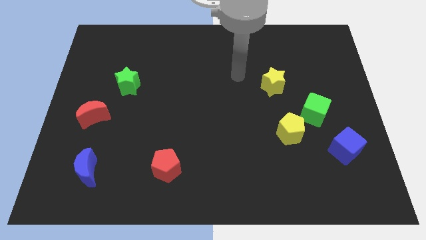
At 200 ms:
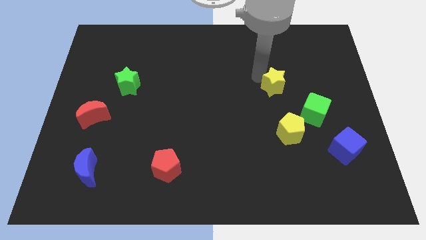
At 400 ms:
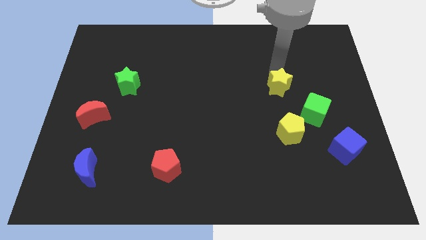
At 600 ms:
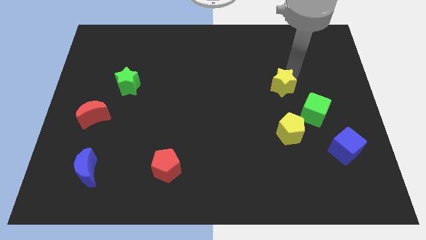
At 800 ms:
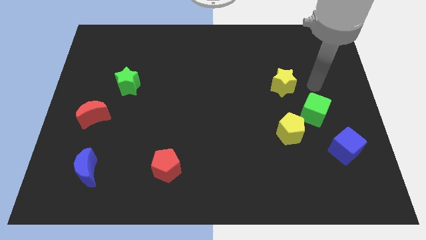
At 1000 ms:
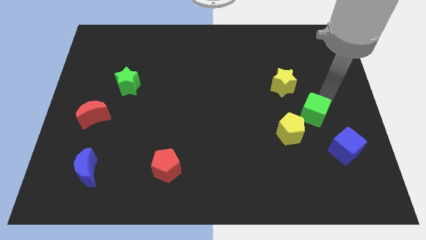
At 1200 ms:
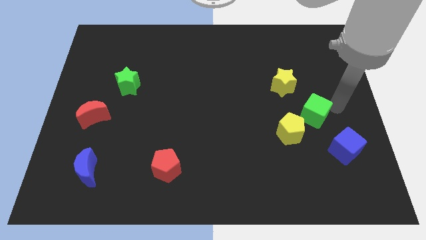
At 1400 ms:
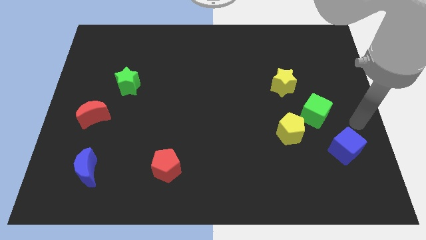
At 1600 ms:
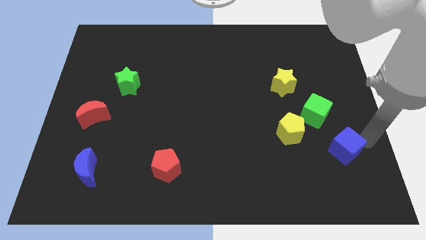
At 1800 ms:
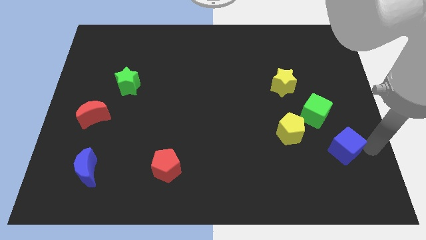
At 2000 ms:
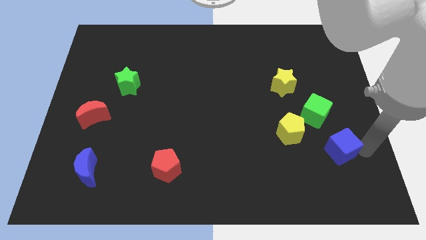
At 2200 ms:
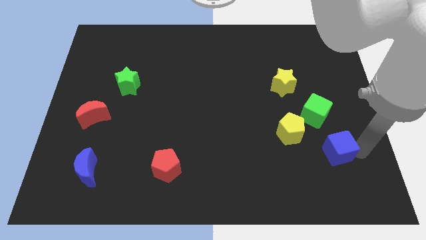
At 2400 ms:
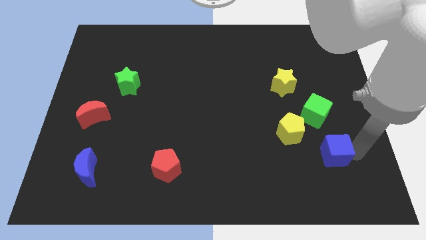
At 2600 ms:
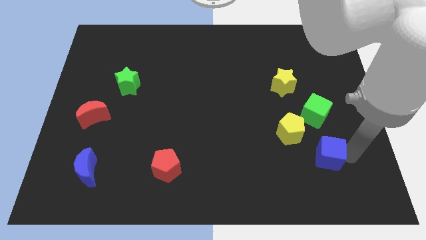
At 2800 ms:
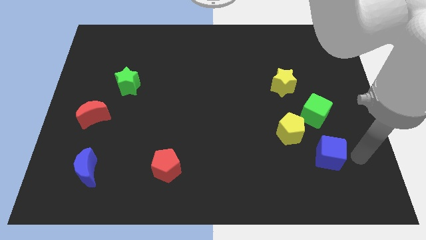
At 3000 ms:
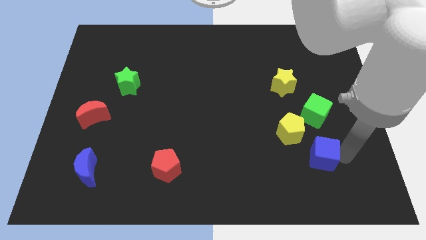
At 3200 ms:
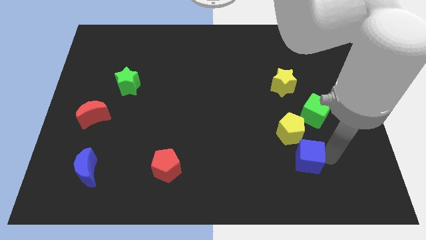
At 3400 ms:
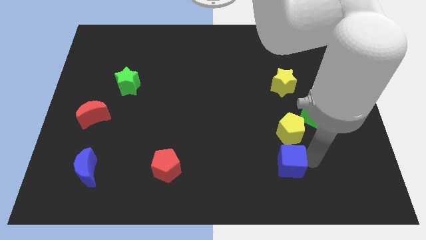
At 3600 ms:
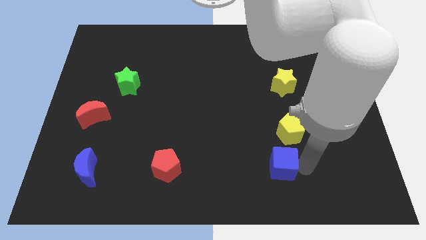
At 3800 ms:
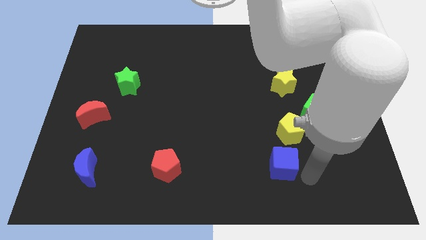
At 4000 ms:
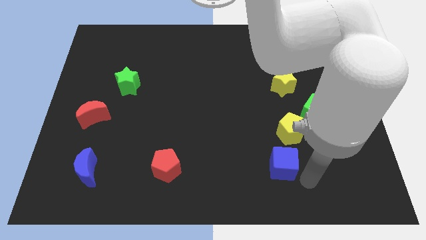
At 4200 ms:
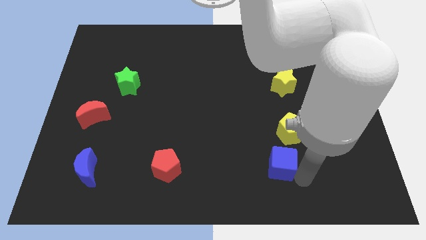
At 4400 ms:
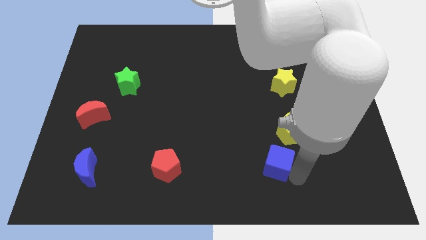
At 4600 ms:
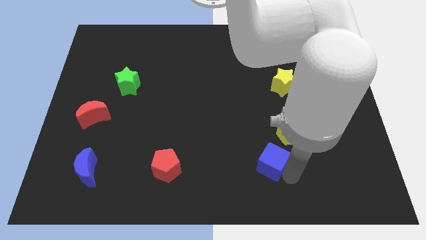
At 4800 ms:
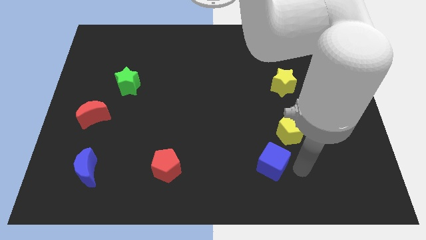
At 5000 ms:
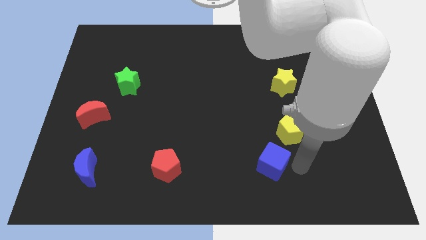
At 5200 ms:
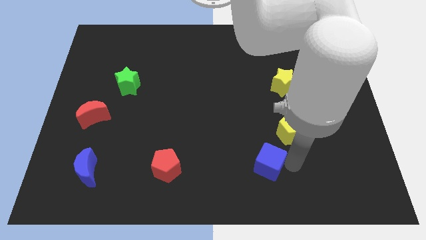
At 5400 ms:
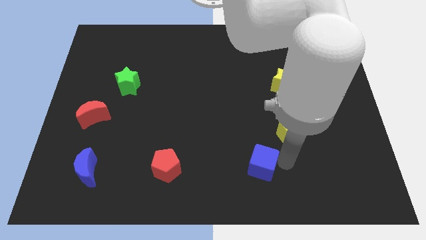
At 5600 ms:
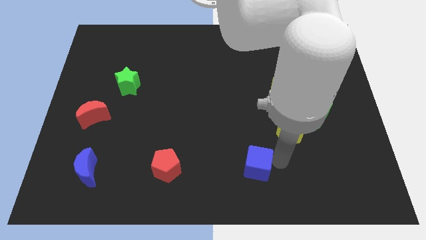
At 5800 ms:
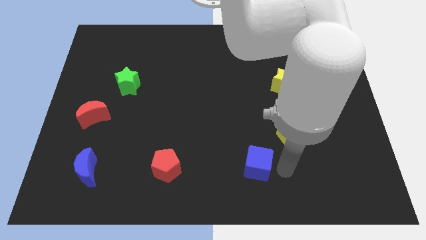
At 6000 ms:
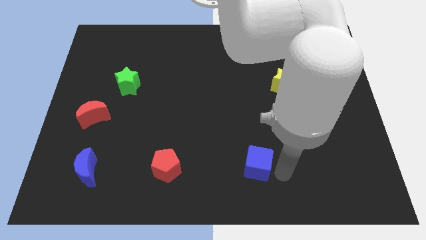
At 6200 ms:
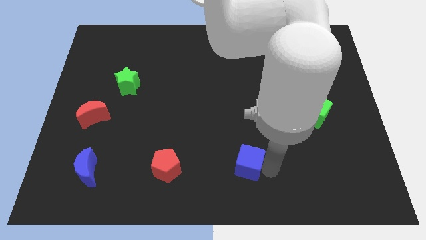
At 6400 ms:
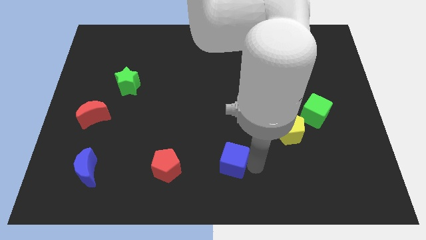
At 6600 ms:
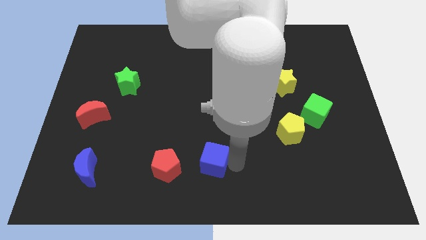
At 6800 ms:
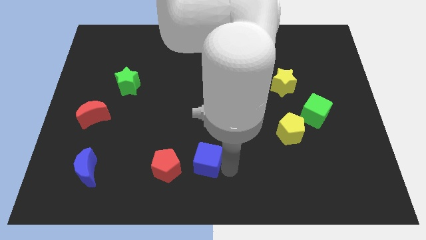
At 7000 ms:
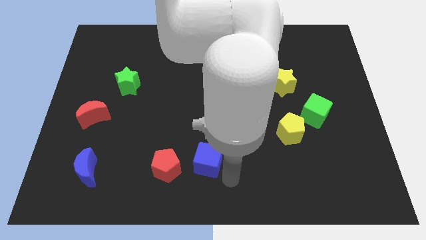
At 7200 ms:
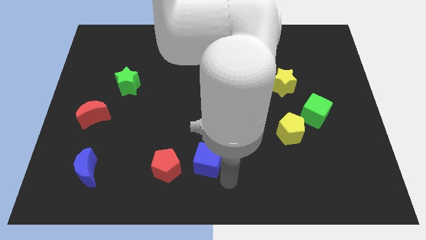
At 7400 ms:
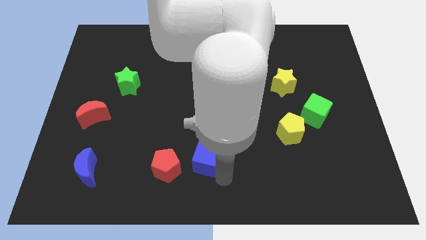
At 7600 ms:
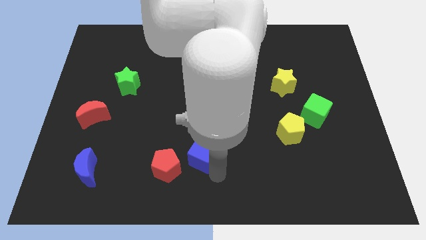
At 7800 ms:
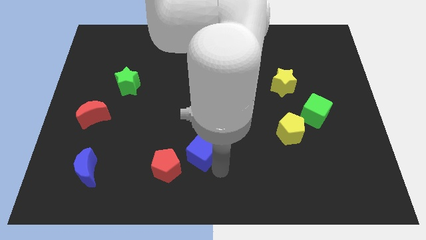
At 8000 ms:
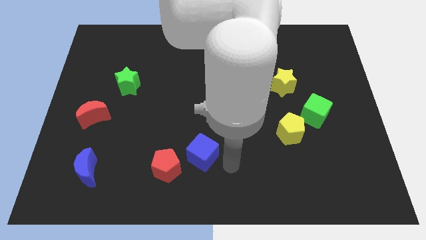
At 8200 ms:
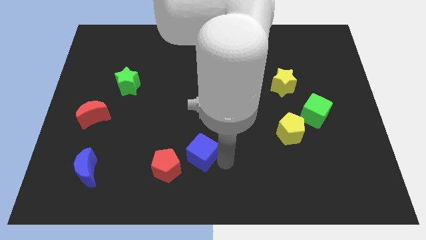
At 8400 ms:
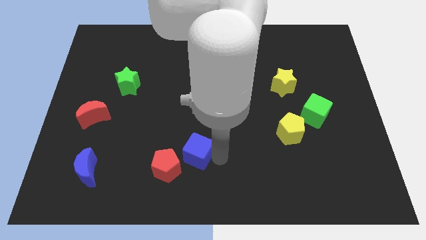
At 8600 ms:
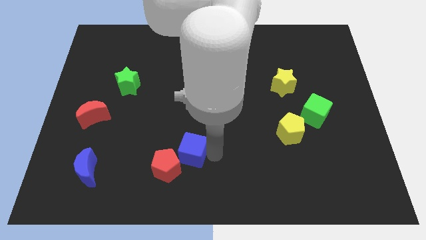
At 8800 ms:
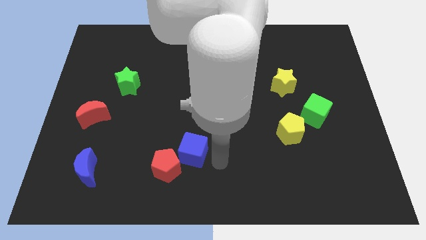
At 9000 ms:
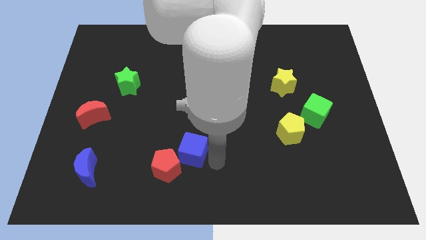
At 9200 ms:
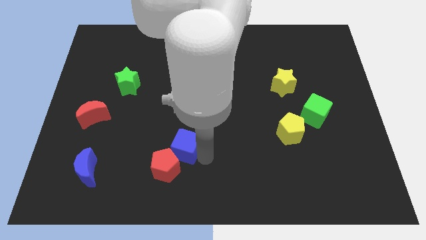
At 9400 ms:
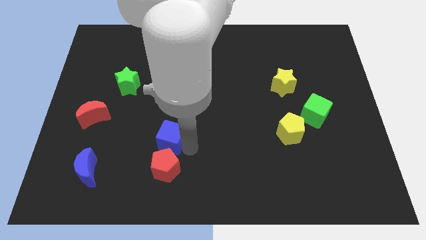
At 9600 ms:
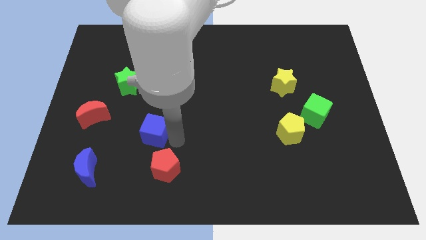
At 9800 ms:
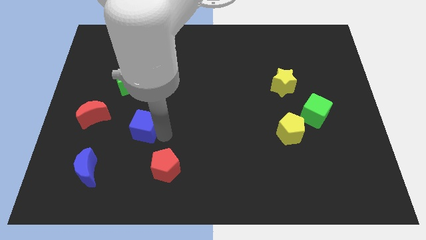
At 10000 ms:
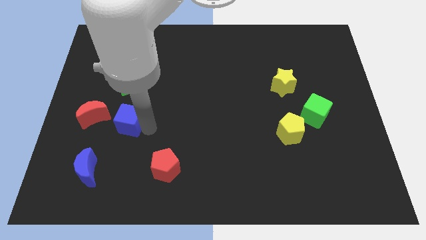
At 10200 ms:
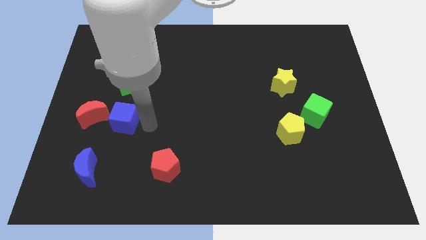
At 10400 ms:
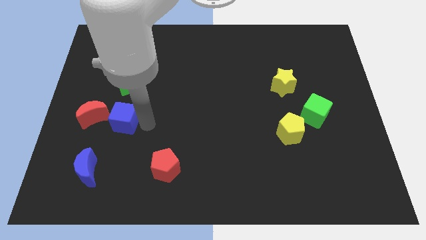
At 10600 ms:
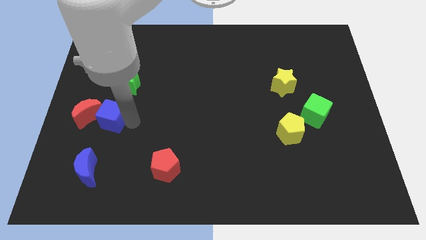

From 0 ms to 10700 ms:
put the blue cube next to the red moon
